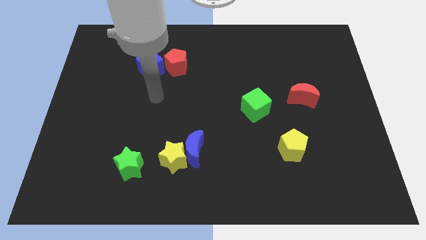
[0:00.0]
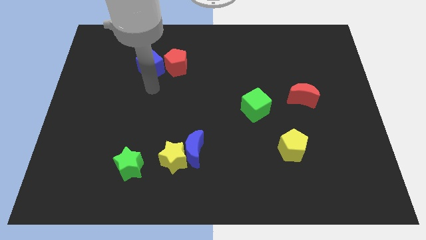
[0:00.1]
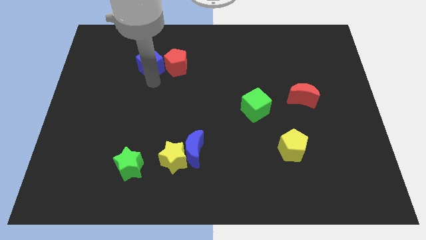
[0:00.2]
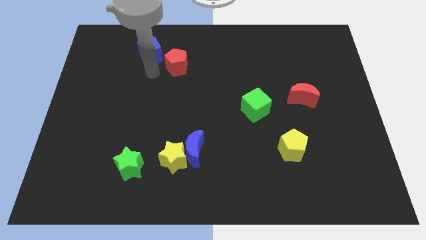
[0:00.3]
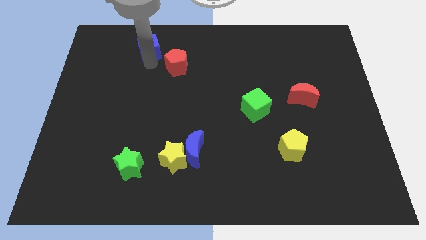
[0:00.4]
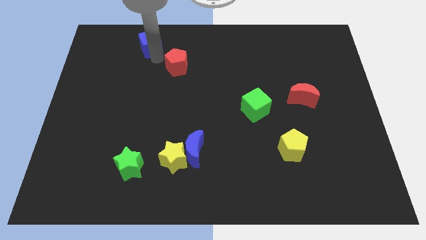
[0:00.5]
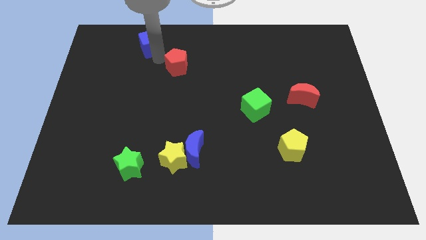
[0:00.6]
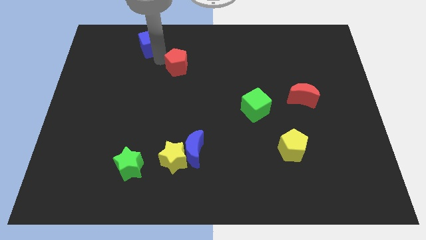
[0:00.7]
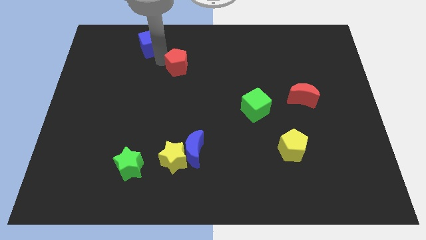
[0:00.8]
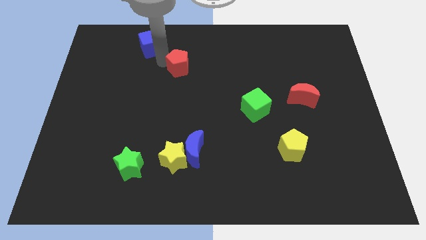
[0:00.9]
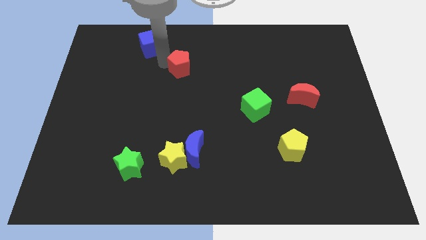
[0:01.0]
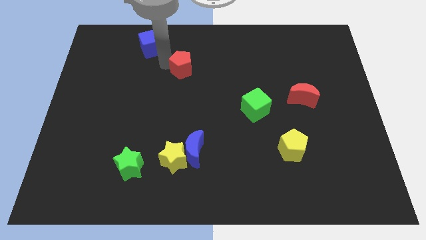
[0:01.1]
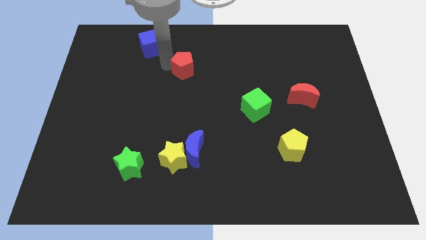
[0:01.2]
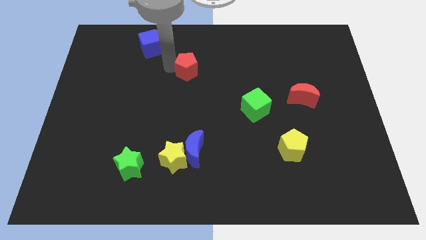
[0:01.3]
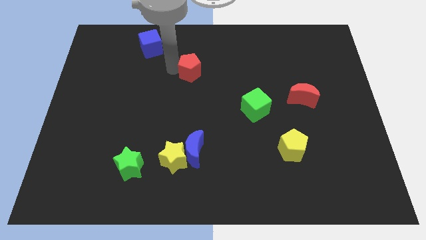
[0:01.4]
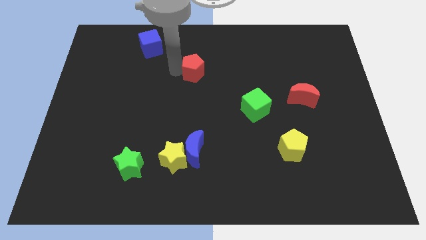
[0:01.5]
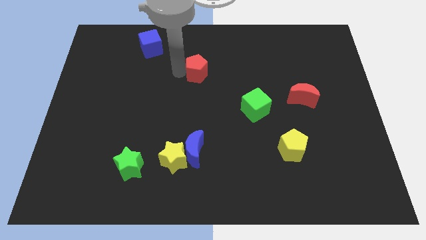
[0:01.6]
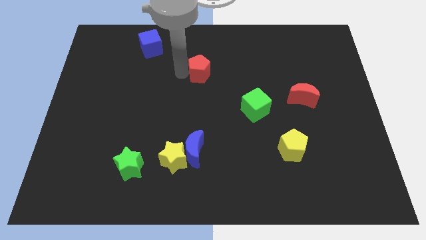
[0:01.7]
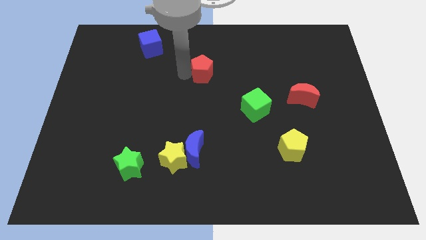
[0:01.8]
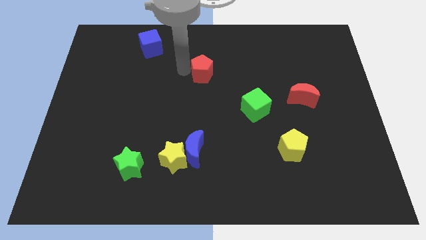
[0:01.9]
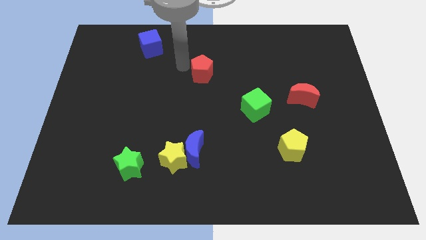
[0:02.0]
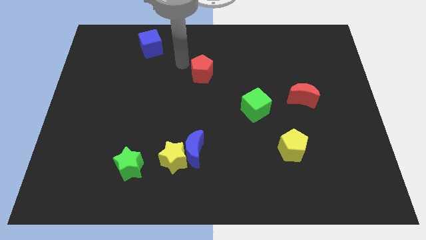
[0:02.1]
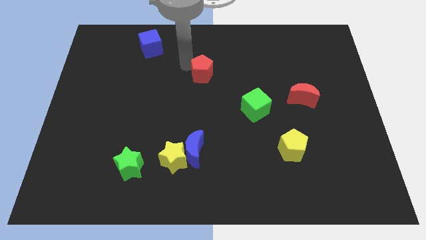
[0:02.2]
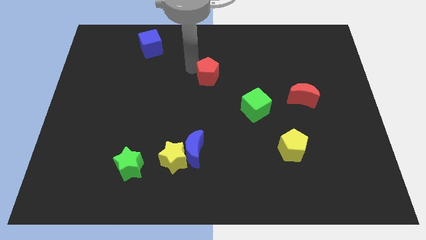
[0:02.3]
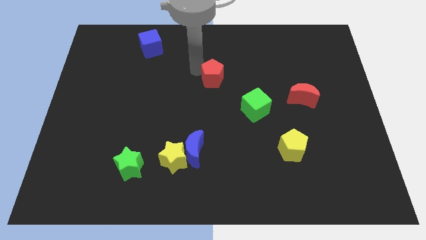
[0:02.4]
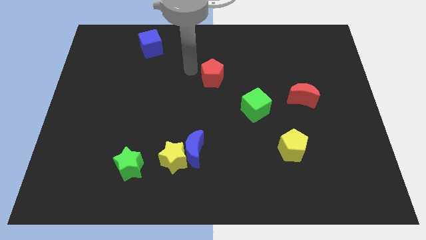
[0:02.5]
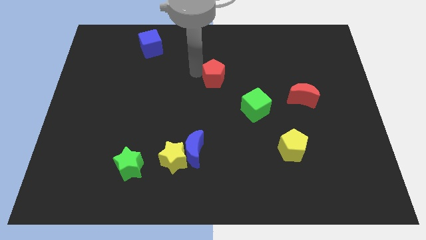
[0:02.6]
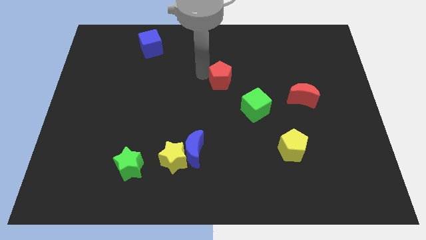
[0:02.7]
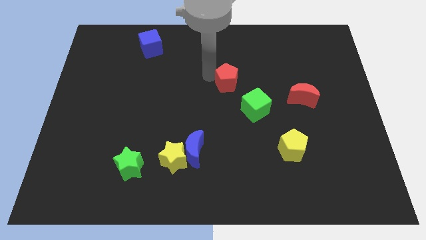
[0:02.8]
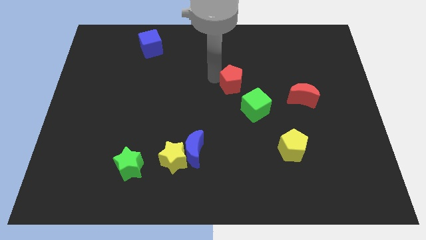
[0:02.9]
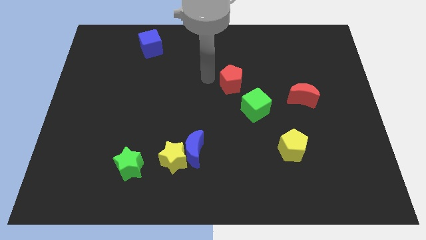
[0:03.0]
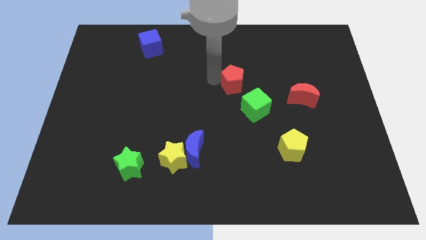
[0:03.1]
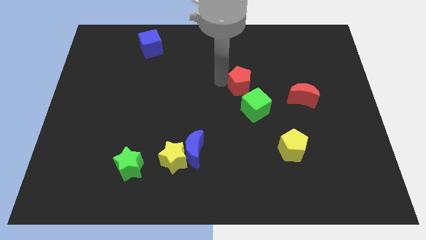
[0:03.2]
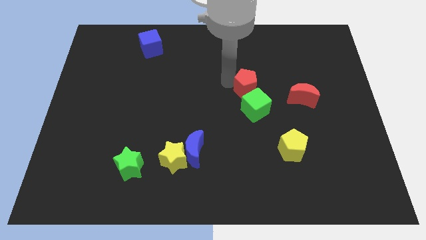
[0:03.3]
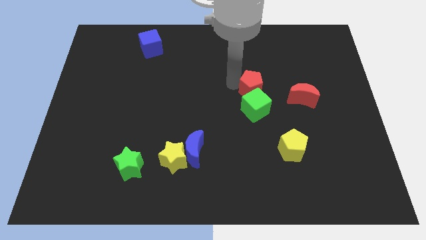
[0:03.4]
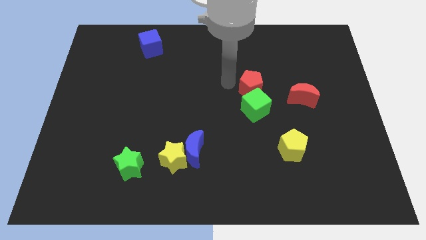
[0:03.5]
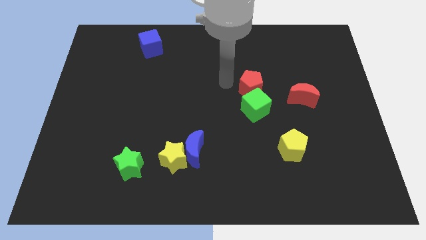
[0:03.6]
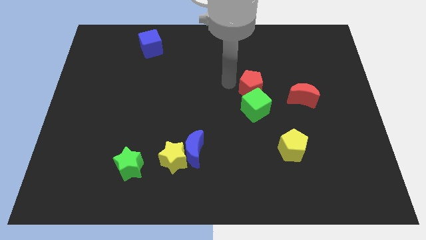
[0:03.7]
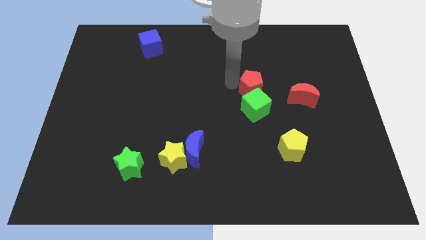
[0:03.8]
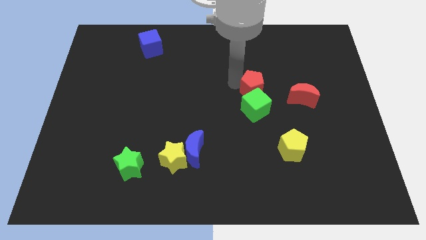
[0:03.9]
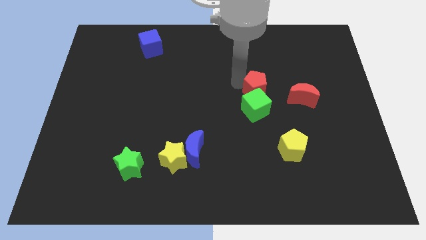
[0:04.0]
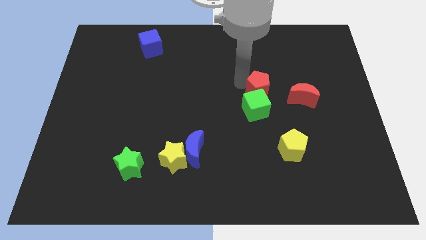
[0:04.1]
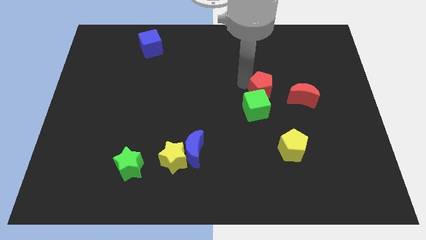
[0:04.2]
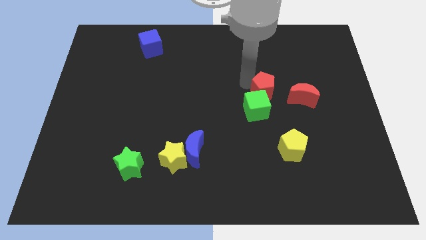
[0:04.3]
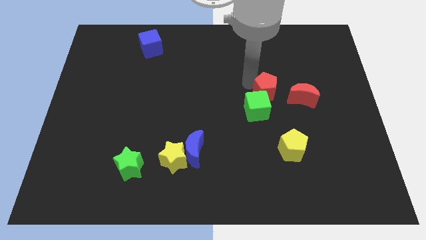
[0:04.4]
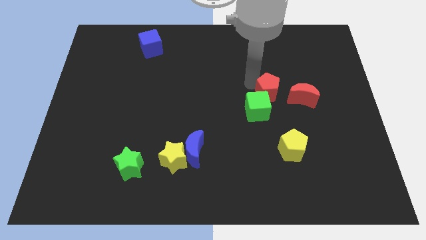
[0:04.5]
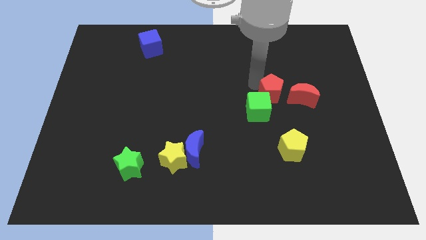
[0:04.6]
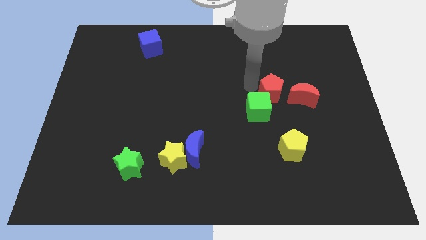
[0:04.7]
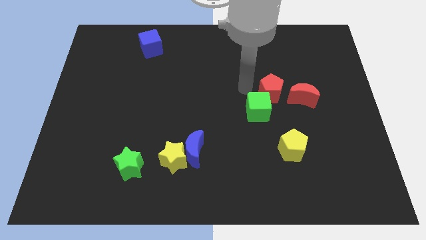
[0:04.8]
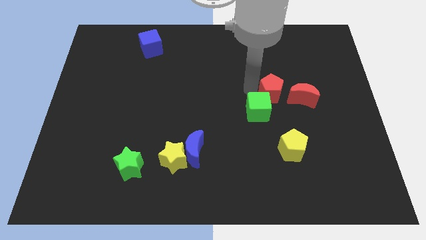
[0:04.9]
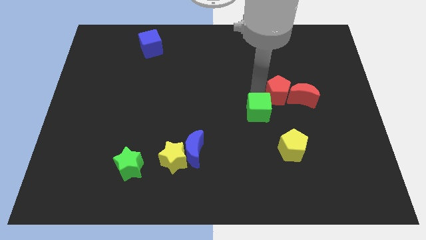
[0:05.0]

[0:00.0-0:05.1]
move the red pentagon towards the red moon

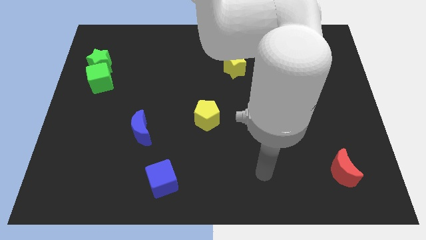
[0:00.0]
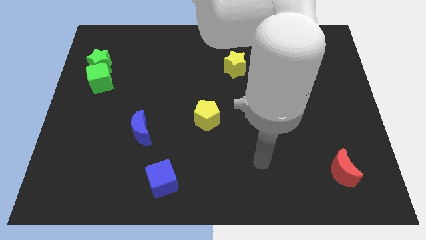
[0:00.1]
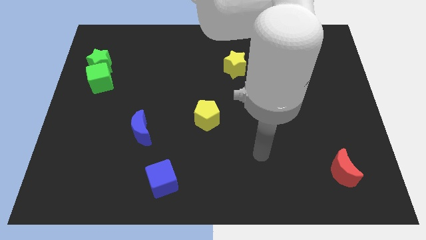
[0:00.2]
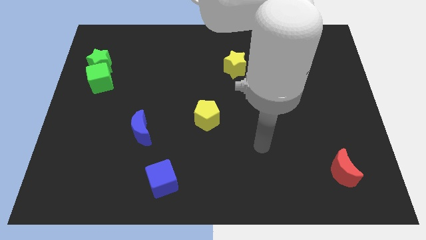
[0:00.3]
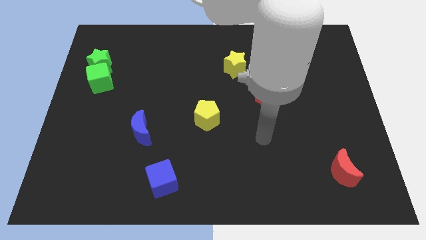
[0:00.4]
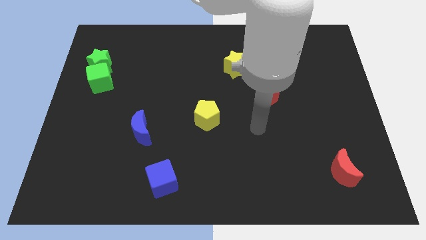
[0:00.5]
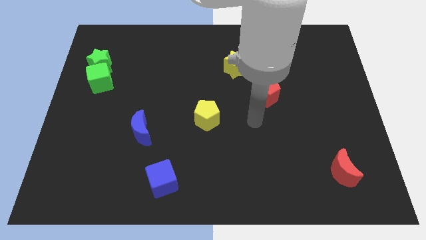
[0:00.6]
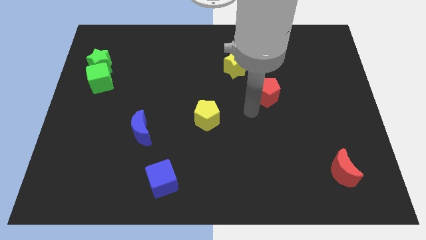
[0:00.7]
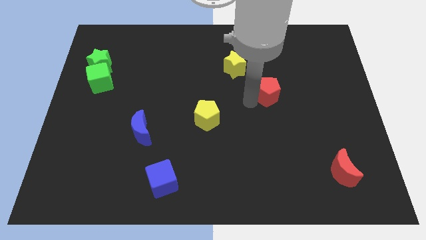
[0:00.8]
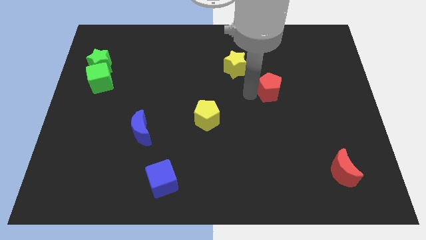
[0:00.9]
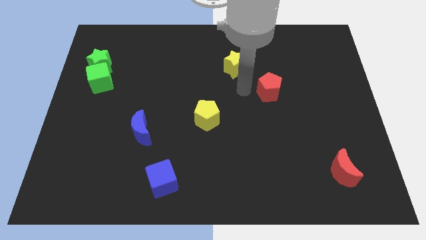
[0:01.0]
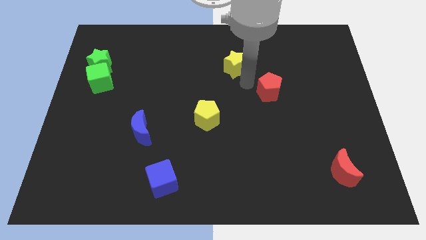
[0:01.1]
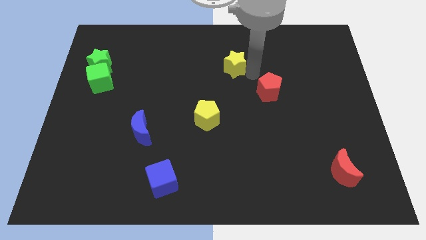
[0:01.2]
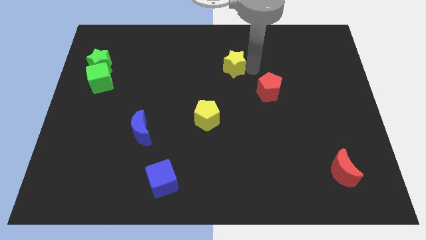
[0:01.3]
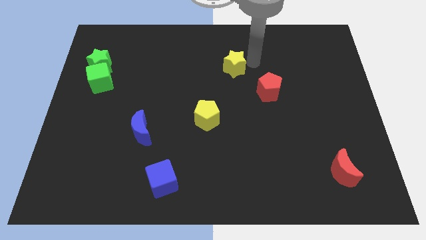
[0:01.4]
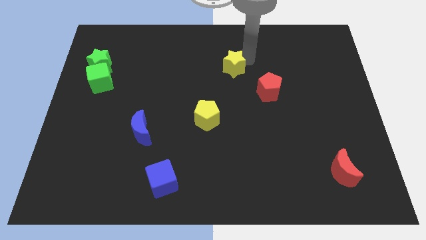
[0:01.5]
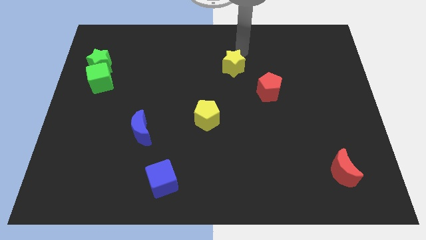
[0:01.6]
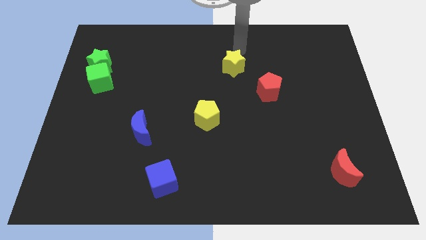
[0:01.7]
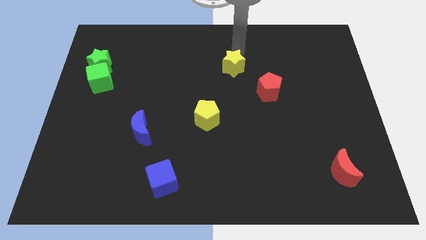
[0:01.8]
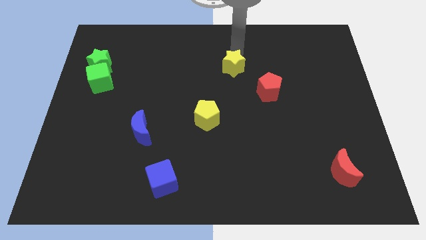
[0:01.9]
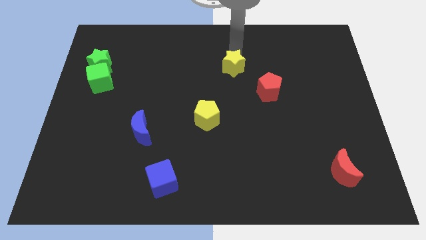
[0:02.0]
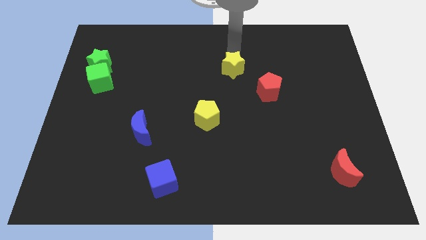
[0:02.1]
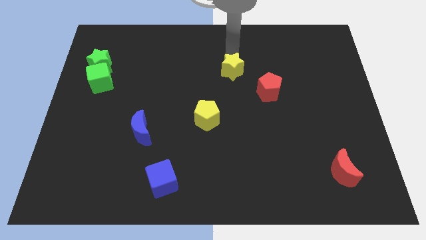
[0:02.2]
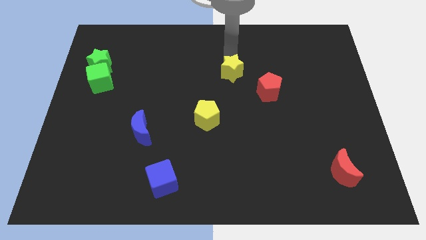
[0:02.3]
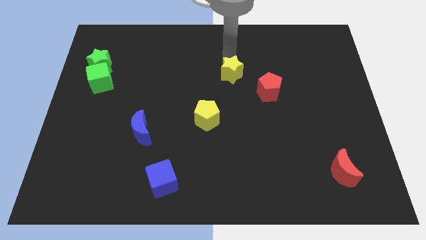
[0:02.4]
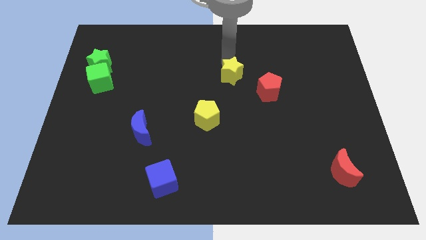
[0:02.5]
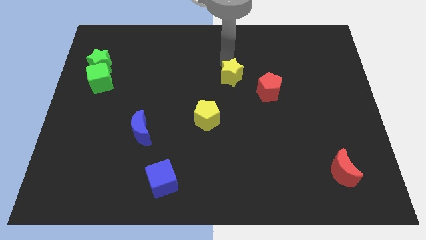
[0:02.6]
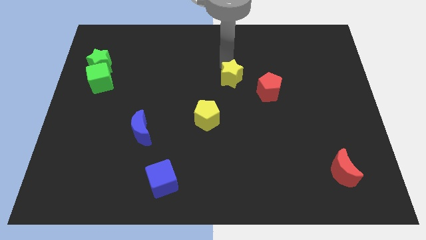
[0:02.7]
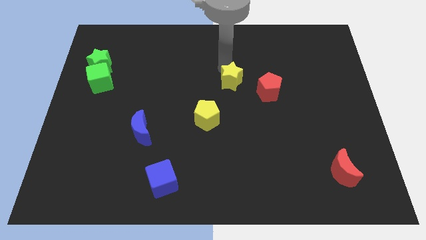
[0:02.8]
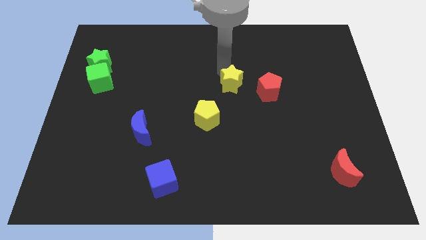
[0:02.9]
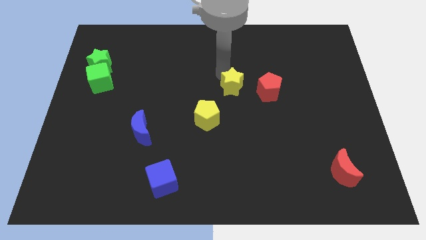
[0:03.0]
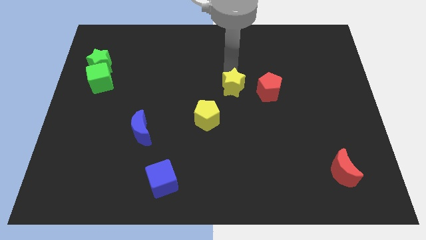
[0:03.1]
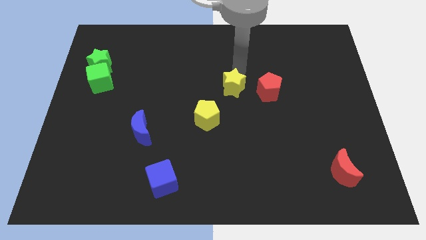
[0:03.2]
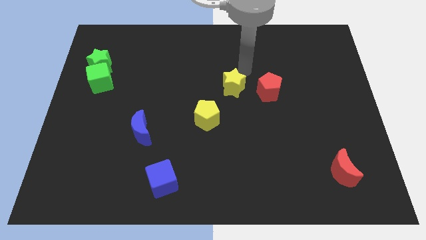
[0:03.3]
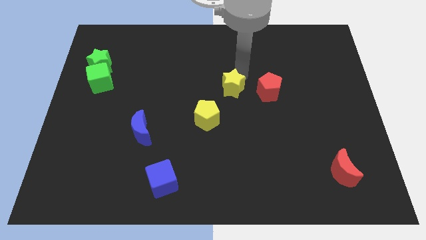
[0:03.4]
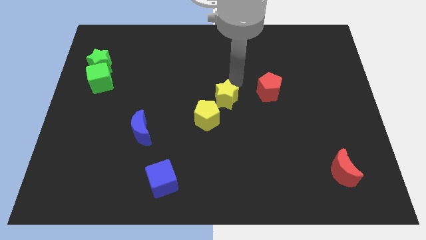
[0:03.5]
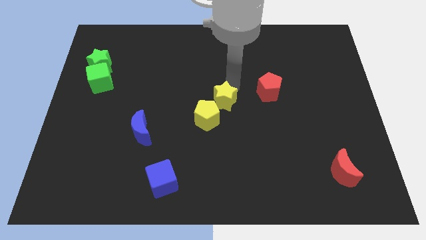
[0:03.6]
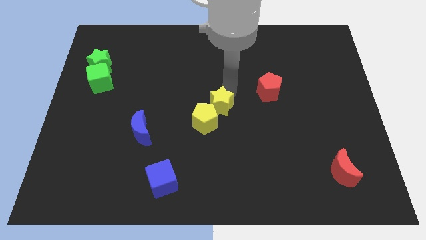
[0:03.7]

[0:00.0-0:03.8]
push the yellow star towards the yellow pentagon
